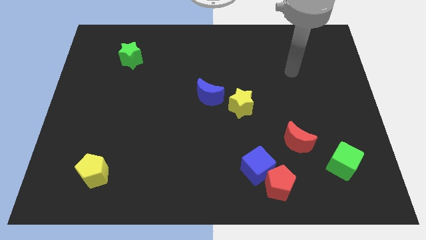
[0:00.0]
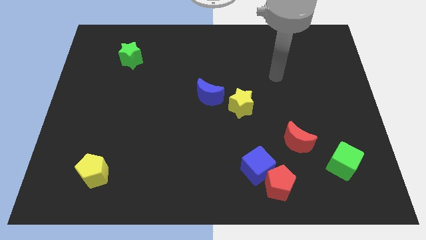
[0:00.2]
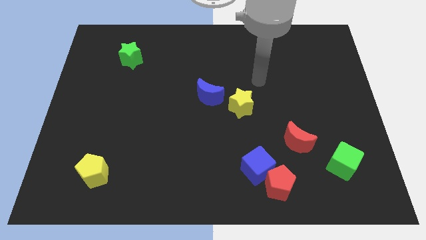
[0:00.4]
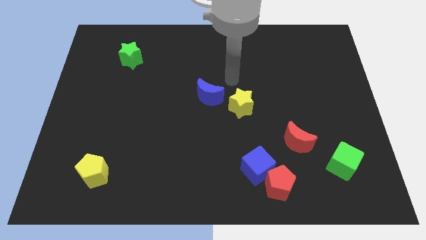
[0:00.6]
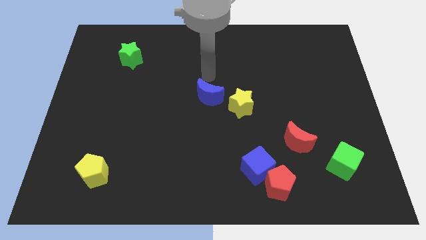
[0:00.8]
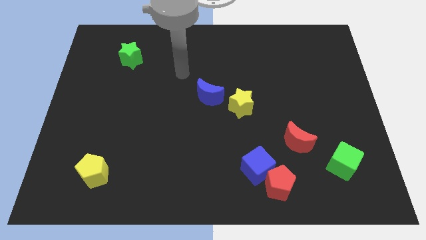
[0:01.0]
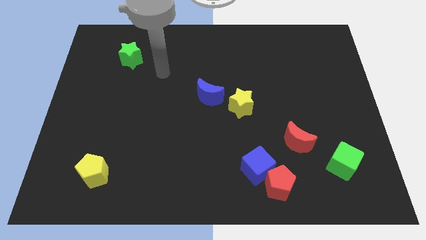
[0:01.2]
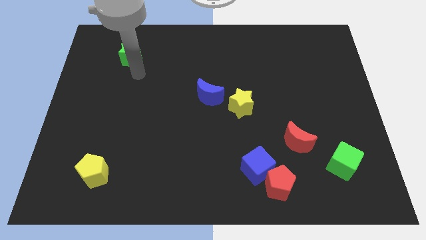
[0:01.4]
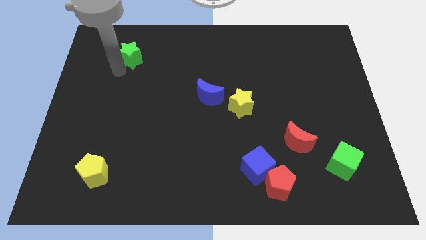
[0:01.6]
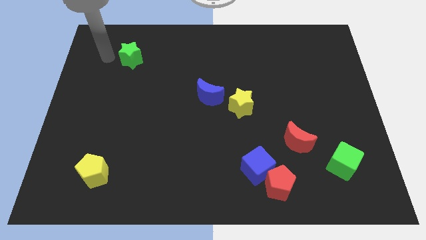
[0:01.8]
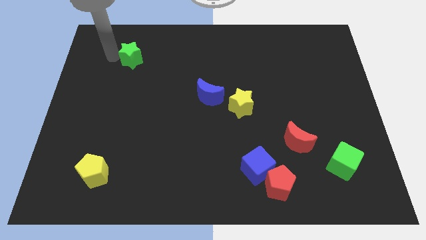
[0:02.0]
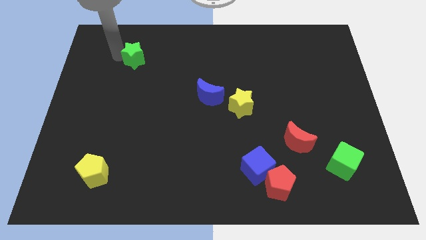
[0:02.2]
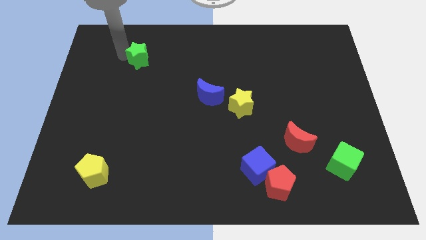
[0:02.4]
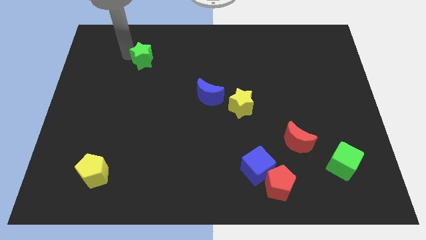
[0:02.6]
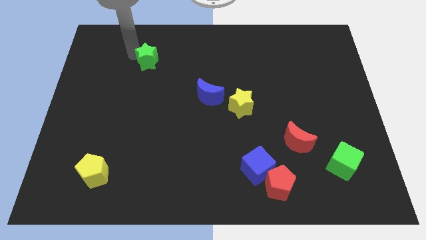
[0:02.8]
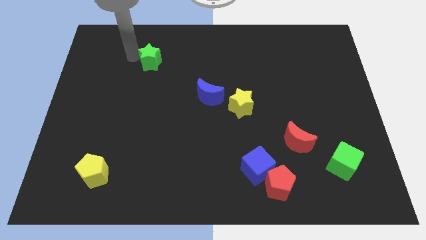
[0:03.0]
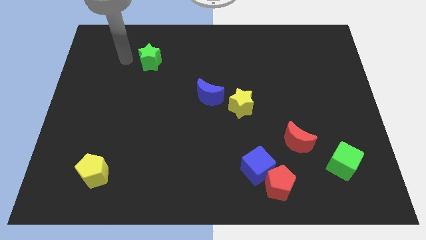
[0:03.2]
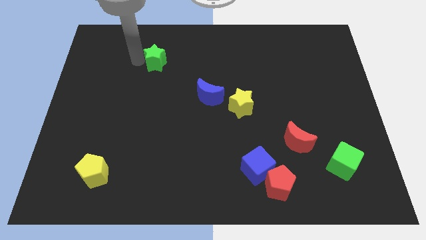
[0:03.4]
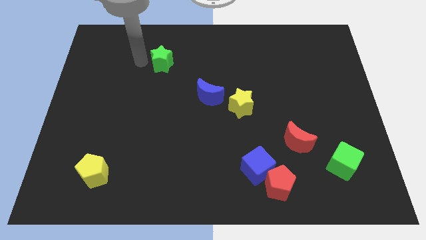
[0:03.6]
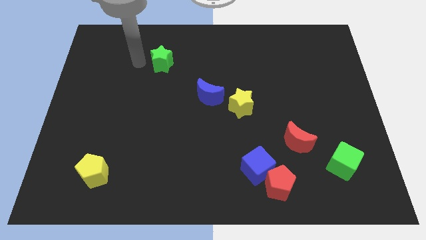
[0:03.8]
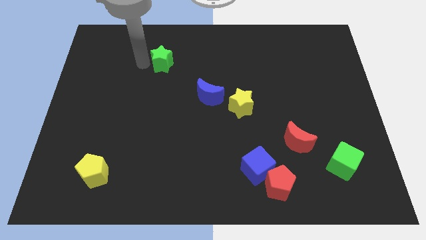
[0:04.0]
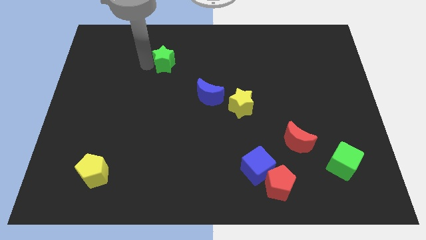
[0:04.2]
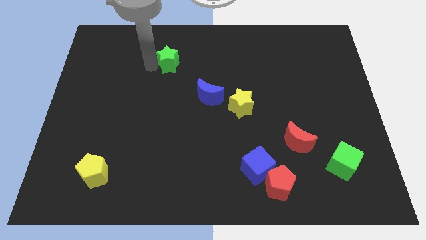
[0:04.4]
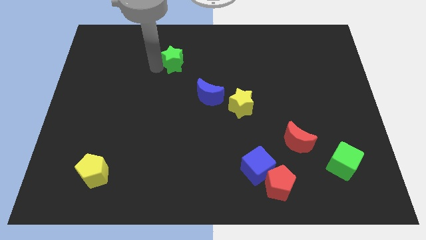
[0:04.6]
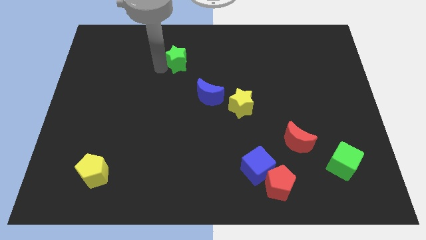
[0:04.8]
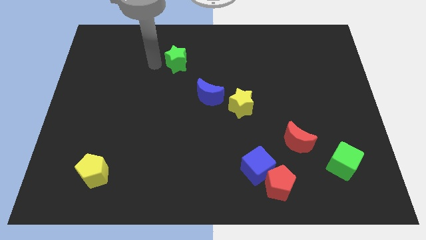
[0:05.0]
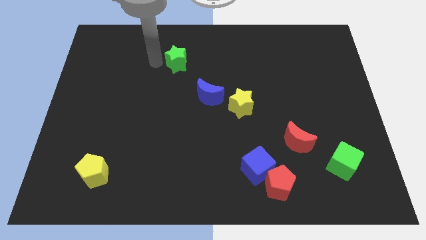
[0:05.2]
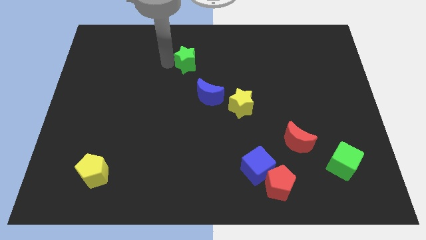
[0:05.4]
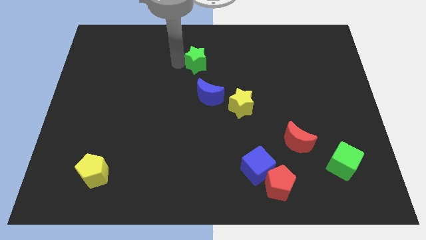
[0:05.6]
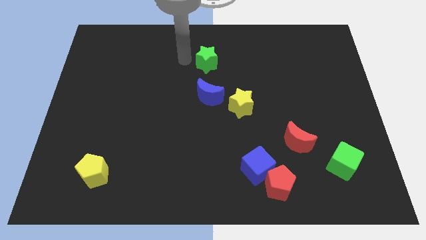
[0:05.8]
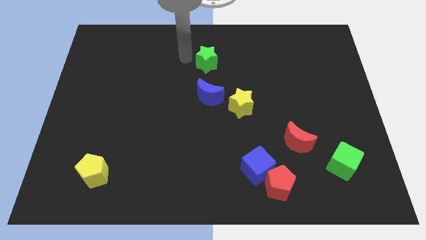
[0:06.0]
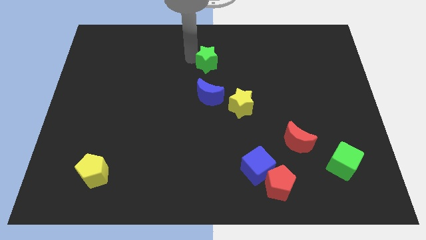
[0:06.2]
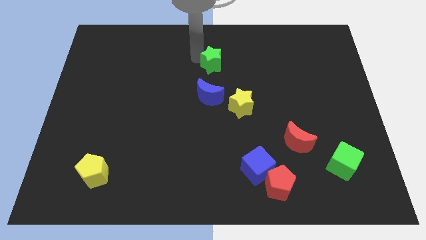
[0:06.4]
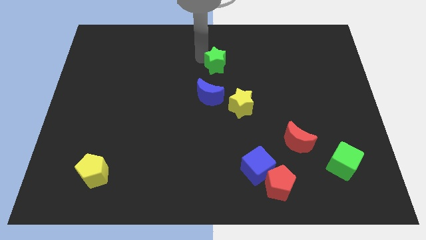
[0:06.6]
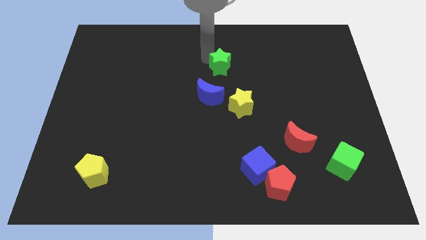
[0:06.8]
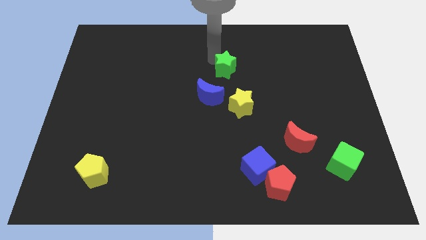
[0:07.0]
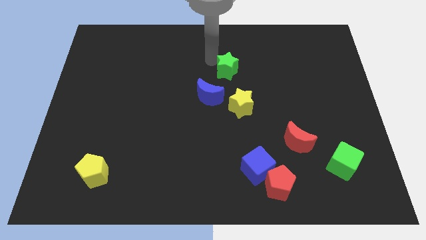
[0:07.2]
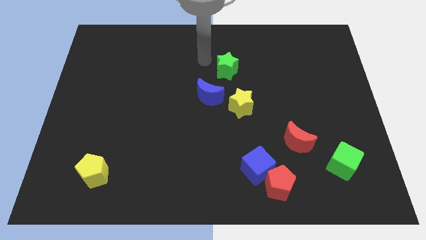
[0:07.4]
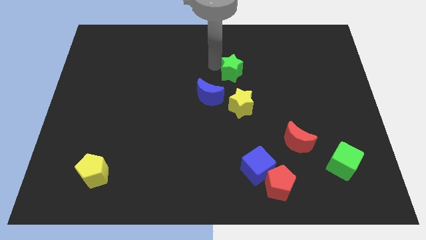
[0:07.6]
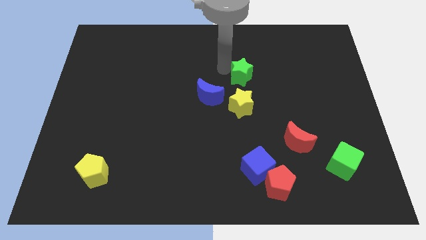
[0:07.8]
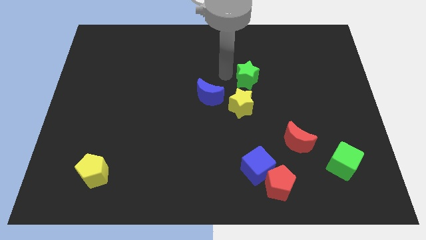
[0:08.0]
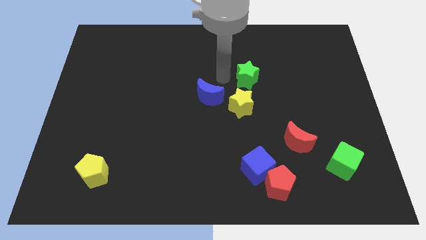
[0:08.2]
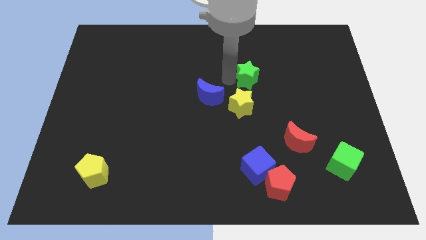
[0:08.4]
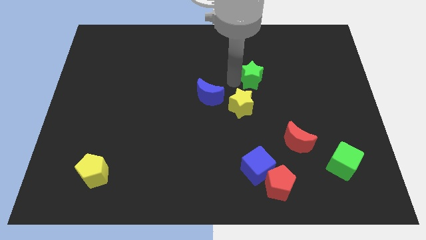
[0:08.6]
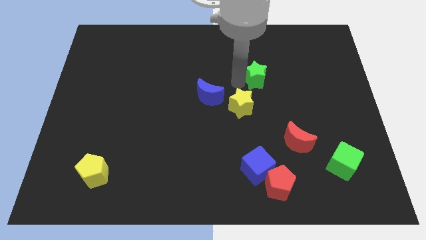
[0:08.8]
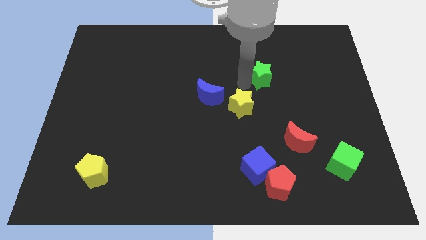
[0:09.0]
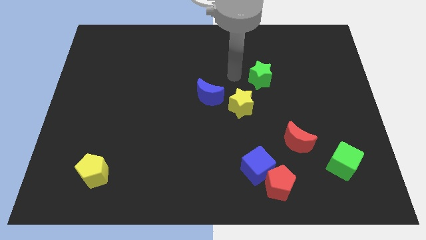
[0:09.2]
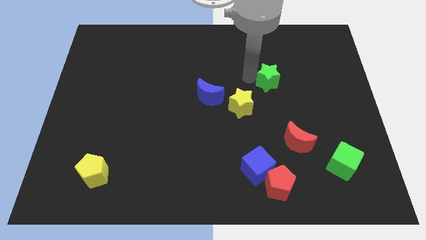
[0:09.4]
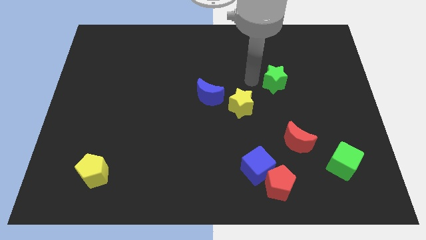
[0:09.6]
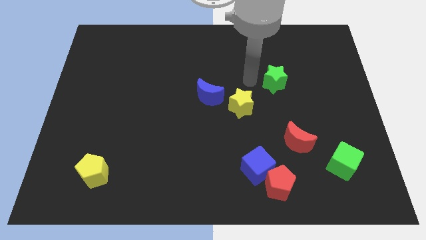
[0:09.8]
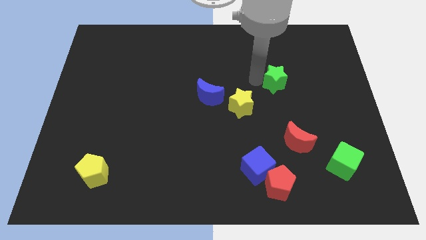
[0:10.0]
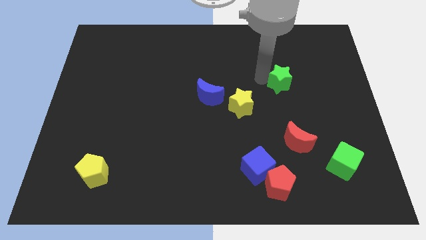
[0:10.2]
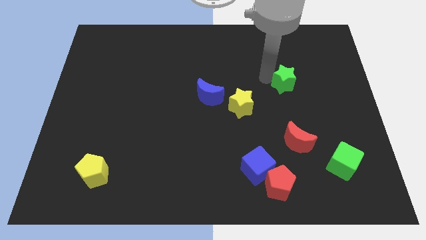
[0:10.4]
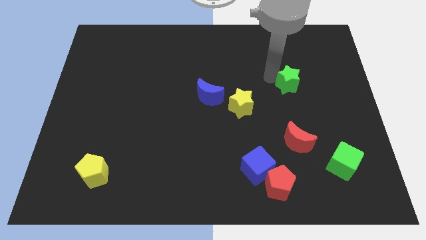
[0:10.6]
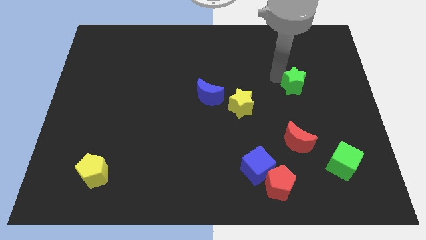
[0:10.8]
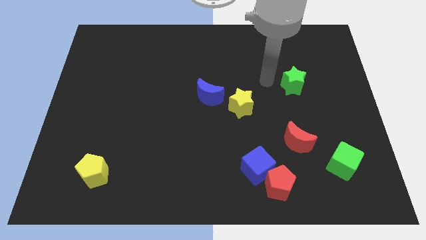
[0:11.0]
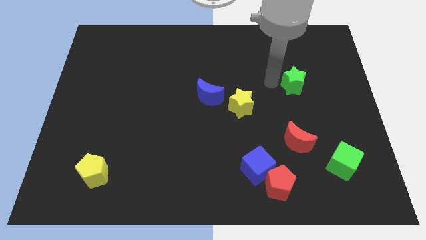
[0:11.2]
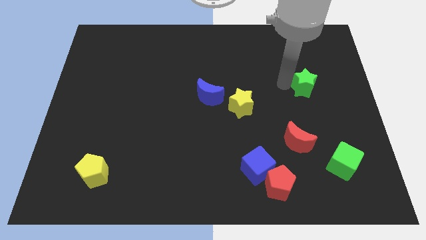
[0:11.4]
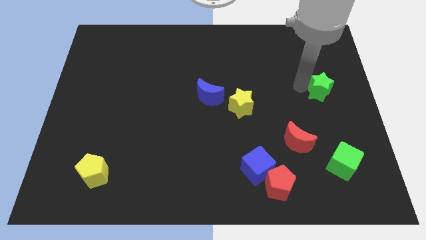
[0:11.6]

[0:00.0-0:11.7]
move the green star to the center right

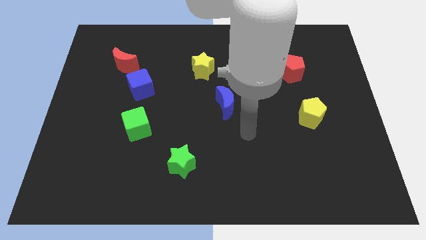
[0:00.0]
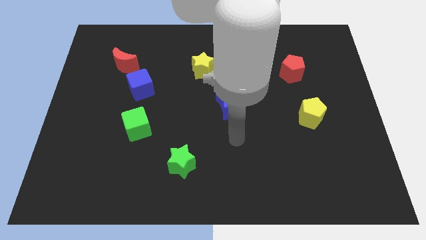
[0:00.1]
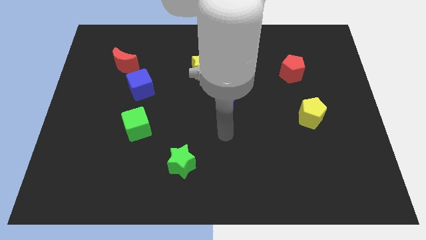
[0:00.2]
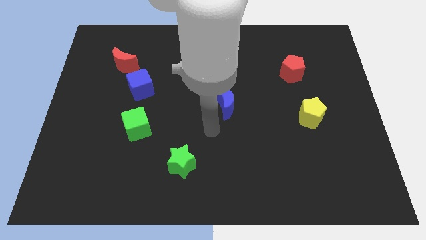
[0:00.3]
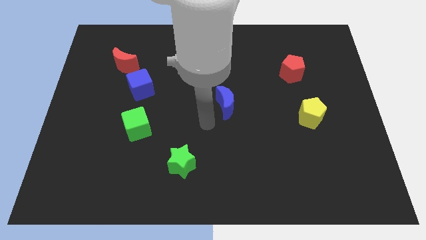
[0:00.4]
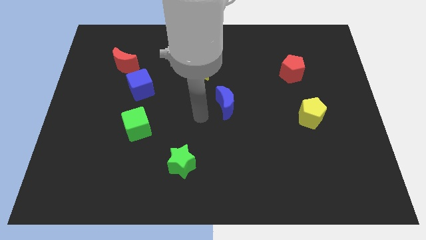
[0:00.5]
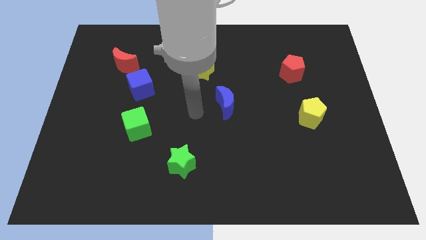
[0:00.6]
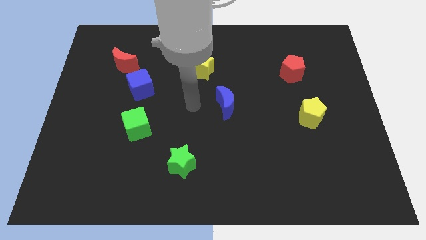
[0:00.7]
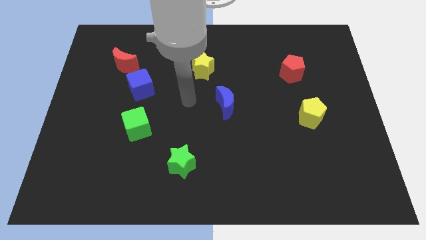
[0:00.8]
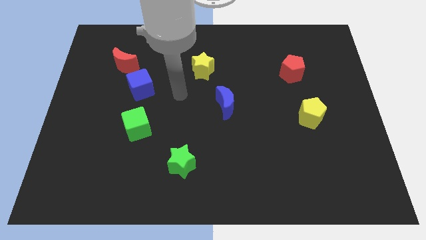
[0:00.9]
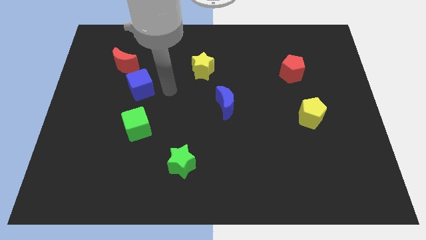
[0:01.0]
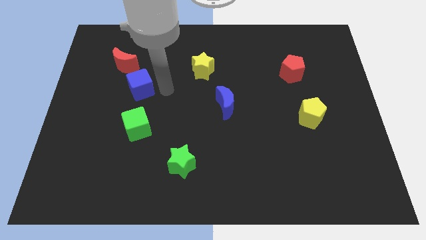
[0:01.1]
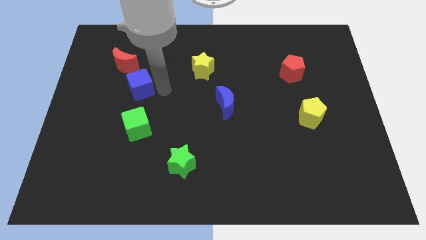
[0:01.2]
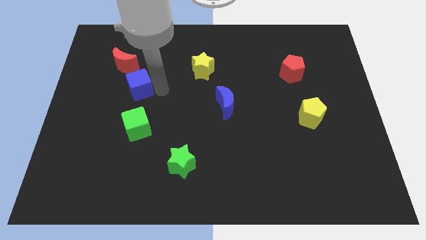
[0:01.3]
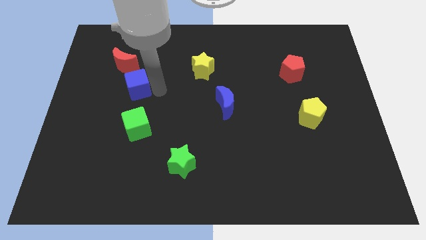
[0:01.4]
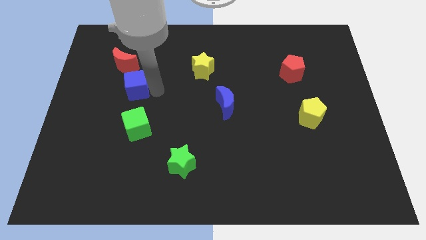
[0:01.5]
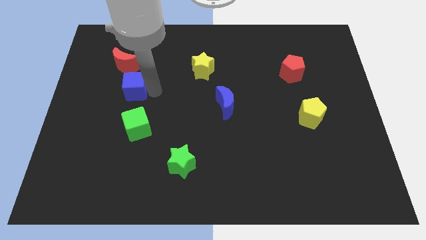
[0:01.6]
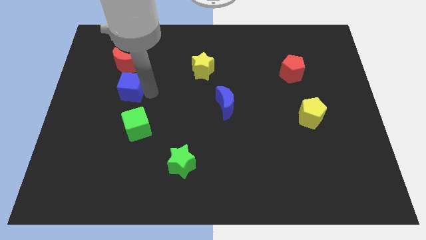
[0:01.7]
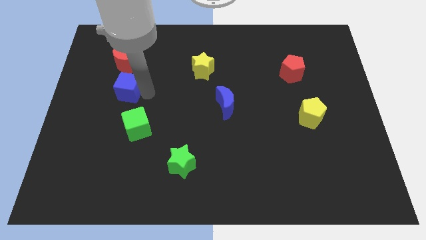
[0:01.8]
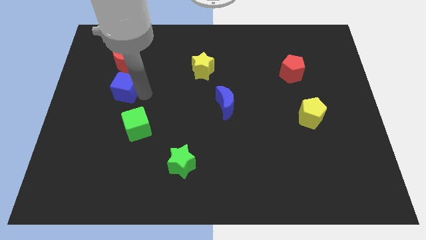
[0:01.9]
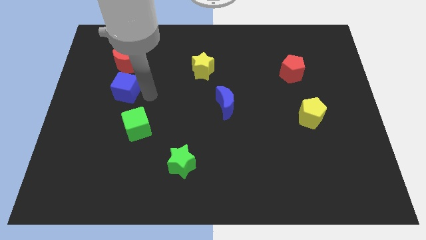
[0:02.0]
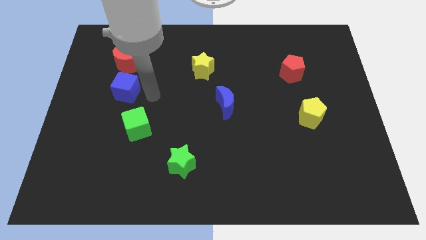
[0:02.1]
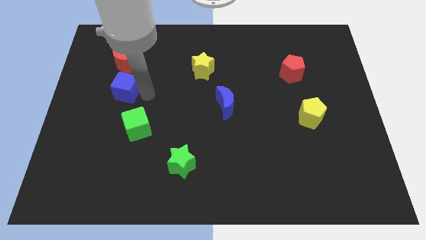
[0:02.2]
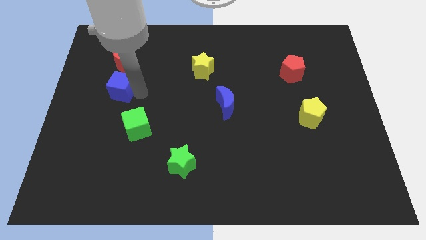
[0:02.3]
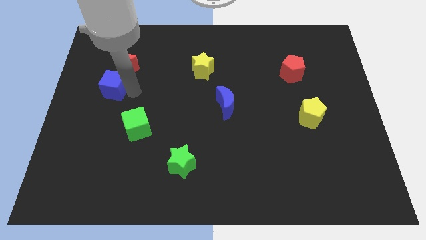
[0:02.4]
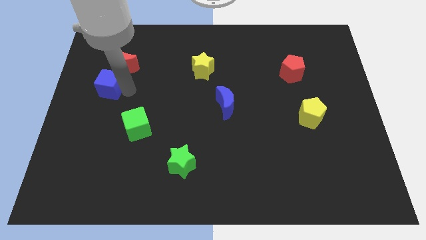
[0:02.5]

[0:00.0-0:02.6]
put the blue cube to the left side
